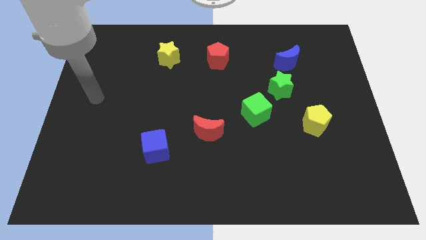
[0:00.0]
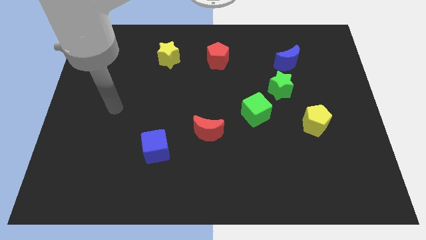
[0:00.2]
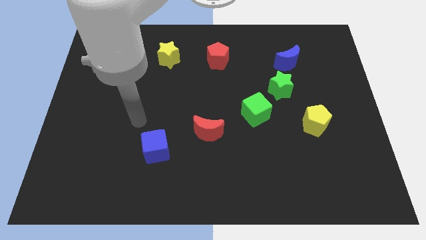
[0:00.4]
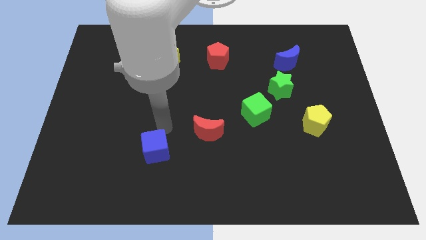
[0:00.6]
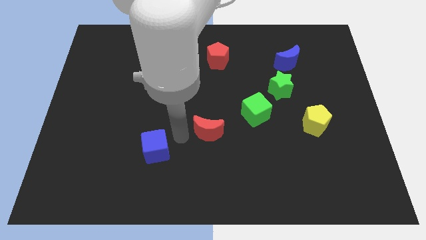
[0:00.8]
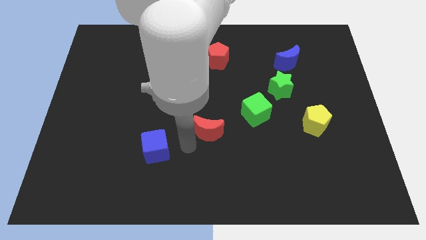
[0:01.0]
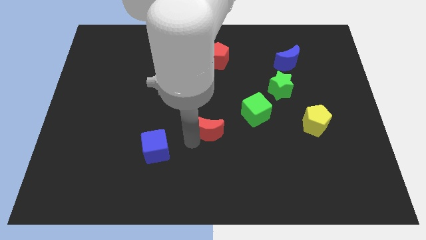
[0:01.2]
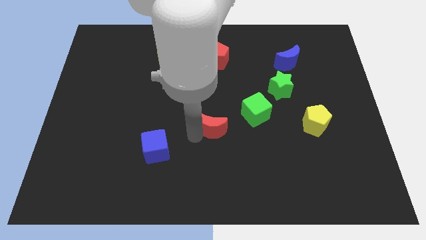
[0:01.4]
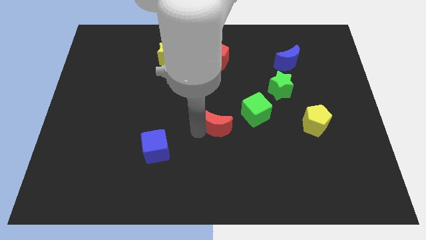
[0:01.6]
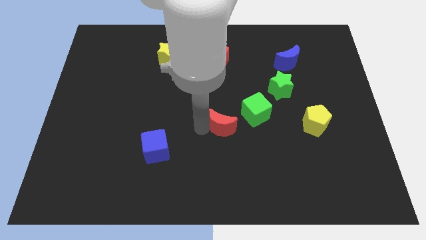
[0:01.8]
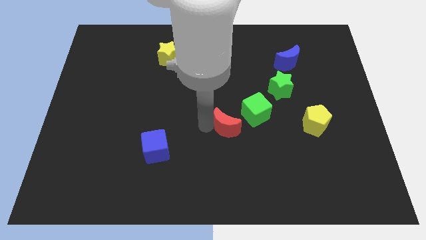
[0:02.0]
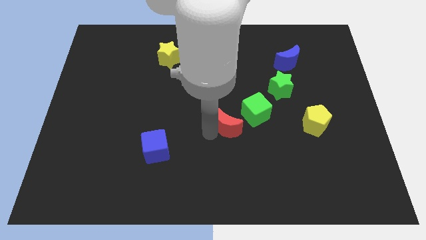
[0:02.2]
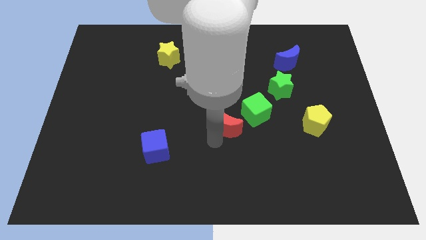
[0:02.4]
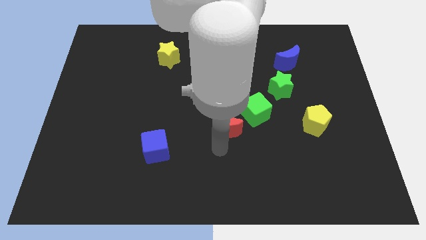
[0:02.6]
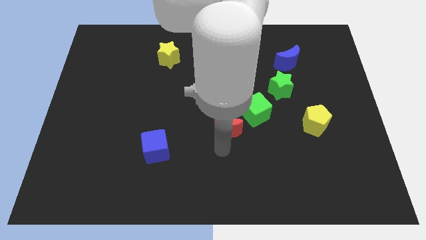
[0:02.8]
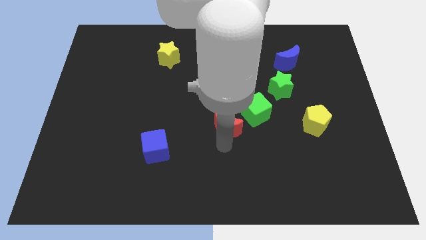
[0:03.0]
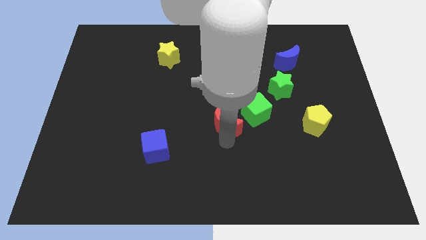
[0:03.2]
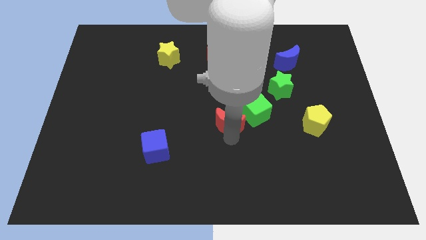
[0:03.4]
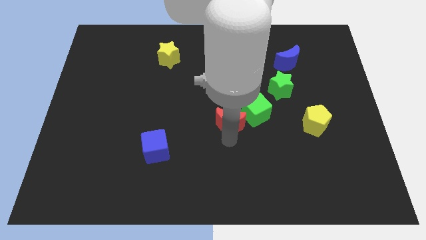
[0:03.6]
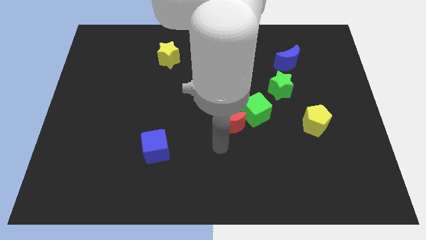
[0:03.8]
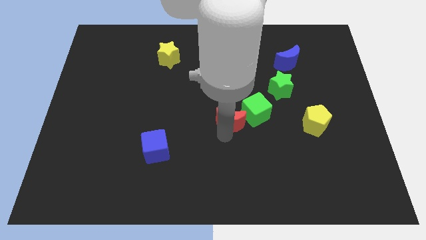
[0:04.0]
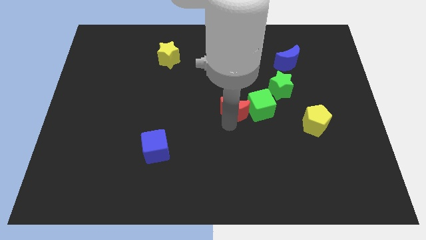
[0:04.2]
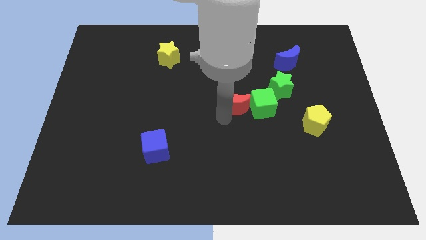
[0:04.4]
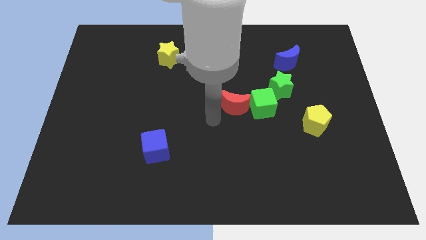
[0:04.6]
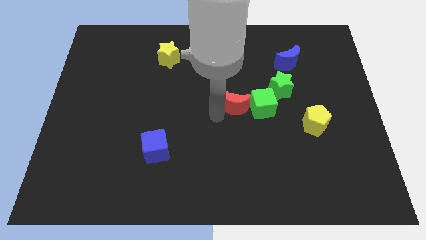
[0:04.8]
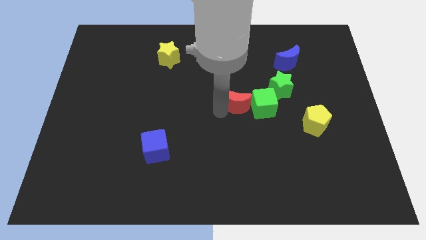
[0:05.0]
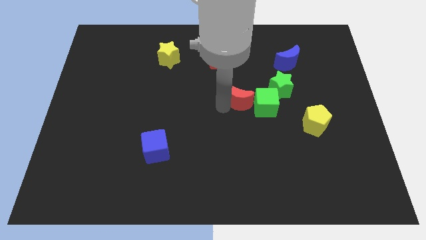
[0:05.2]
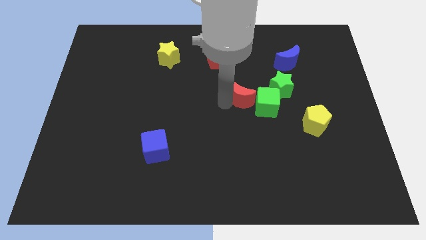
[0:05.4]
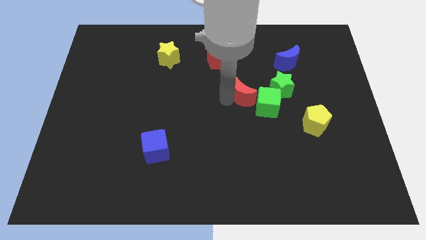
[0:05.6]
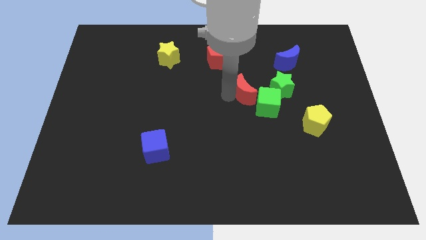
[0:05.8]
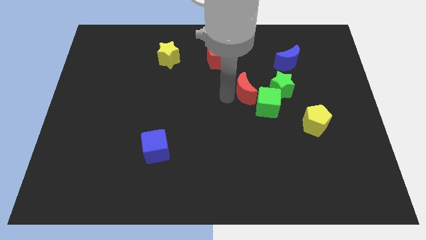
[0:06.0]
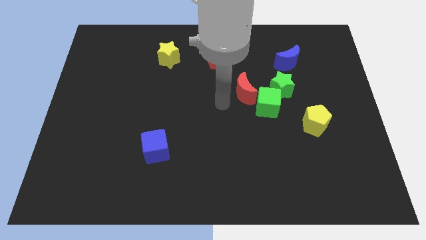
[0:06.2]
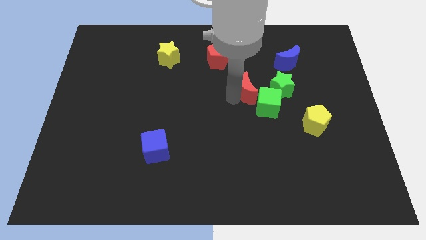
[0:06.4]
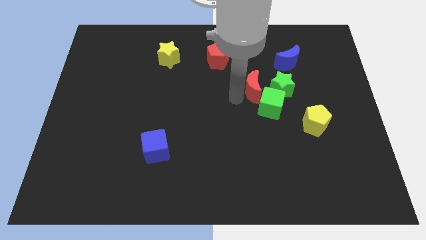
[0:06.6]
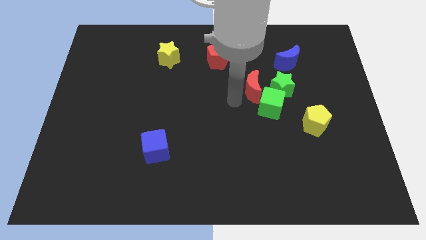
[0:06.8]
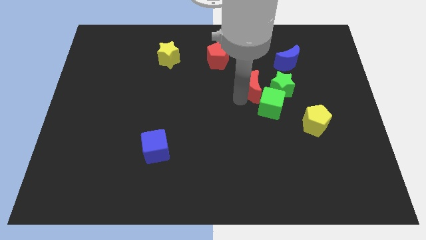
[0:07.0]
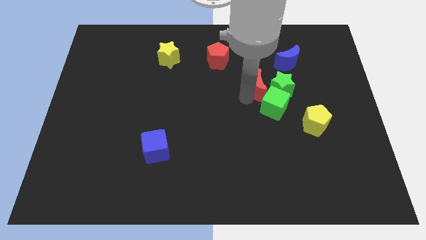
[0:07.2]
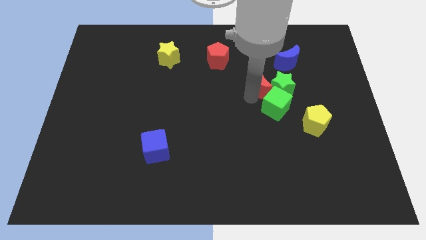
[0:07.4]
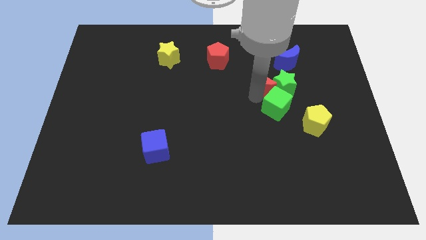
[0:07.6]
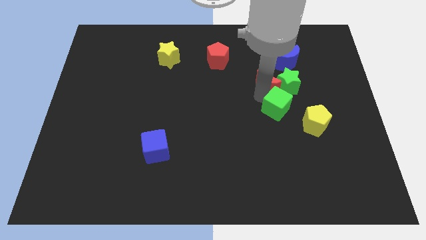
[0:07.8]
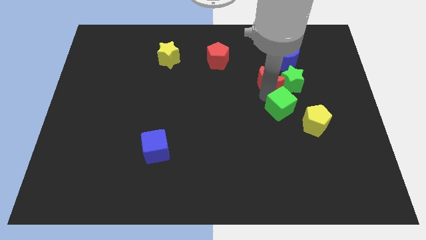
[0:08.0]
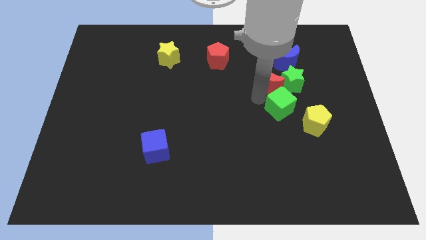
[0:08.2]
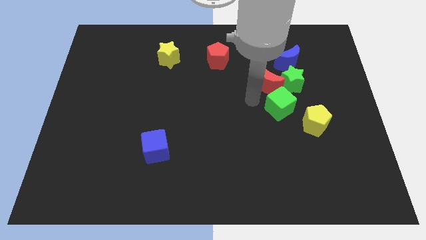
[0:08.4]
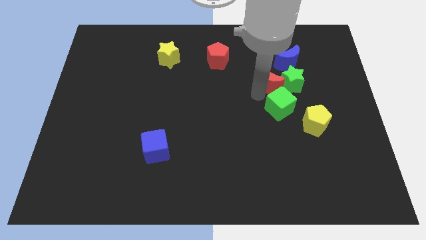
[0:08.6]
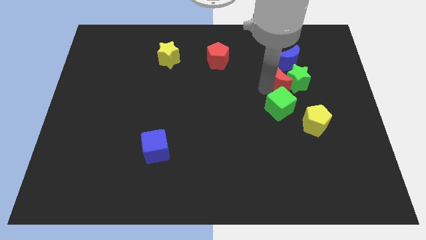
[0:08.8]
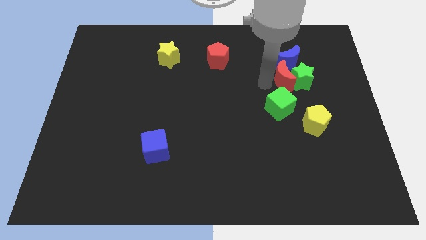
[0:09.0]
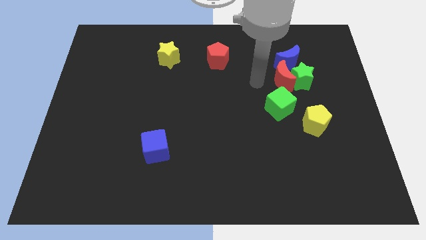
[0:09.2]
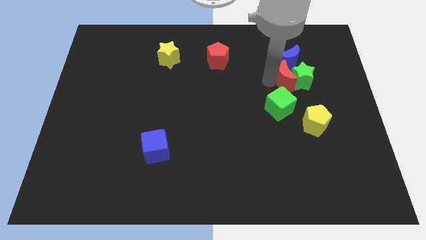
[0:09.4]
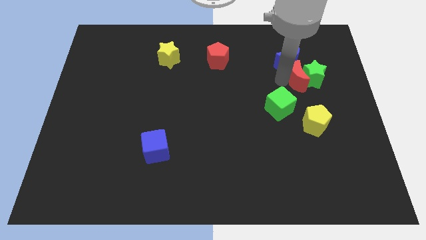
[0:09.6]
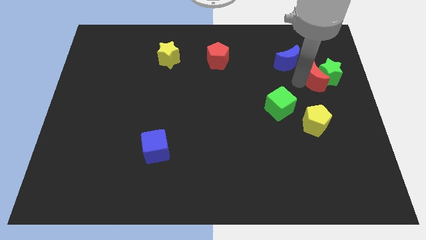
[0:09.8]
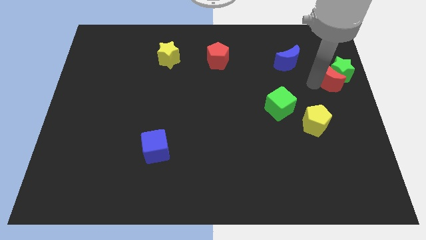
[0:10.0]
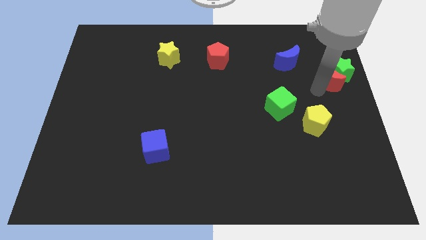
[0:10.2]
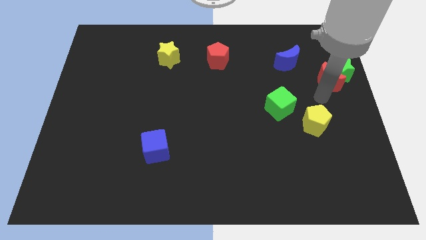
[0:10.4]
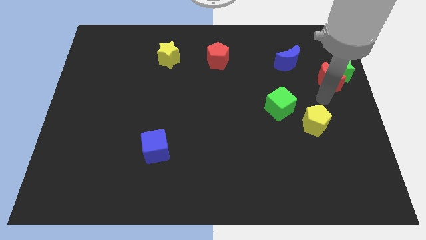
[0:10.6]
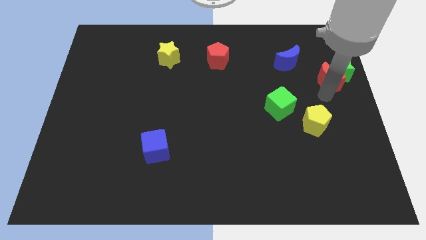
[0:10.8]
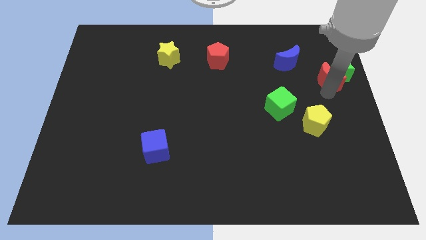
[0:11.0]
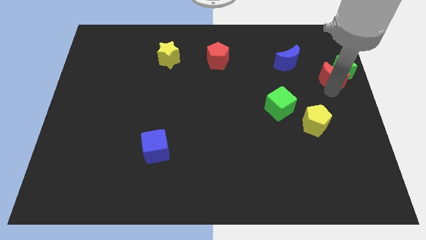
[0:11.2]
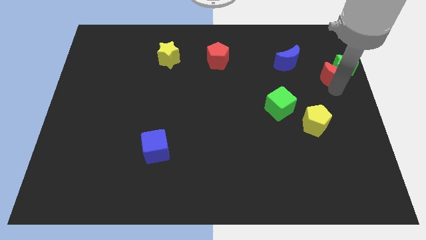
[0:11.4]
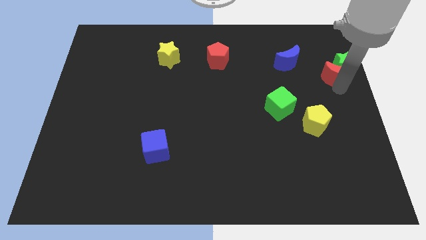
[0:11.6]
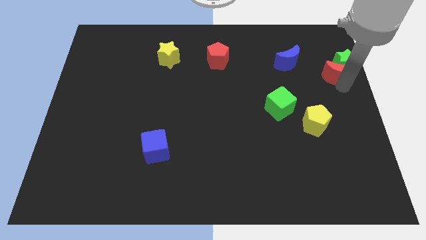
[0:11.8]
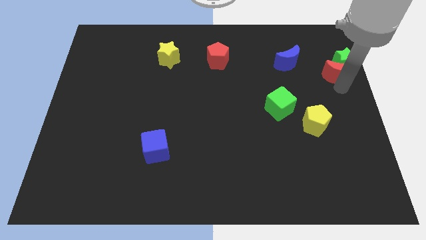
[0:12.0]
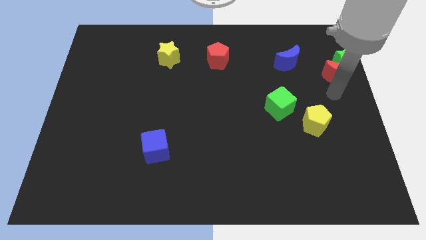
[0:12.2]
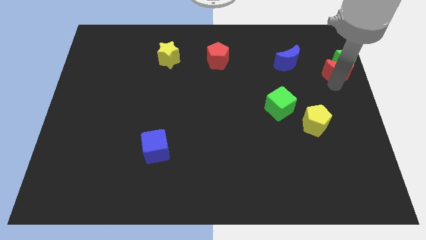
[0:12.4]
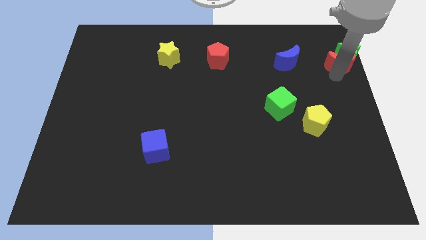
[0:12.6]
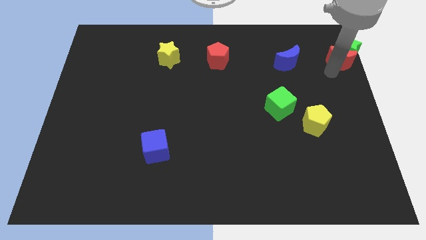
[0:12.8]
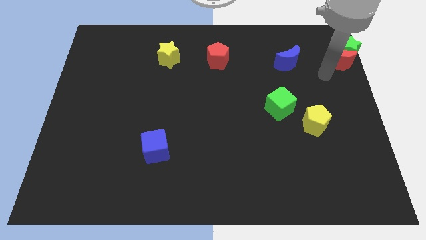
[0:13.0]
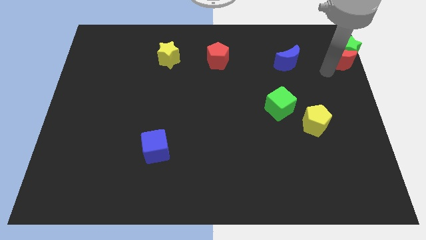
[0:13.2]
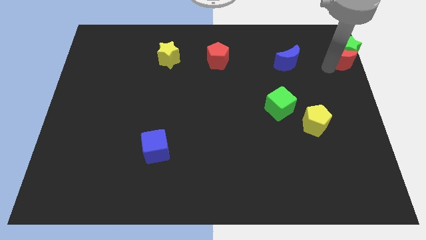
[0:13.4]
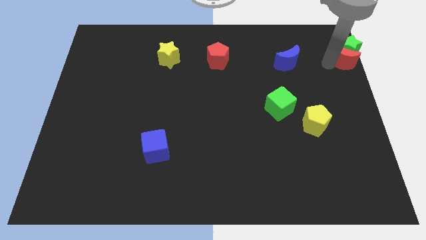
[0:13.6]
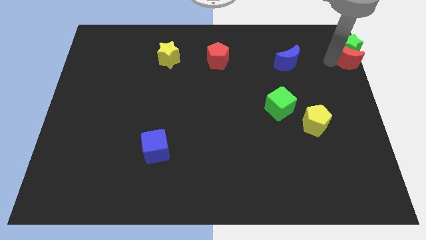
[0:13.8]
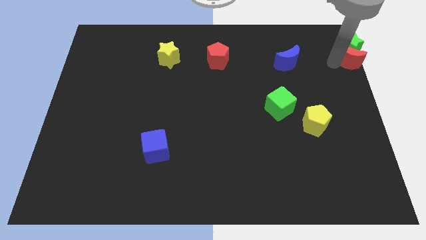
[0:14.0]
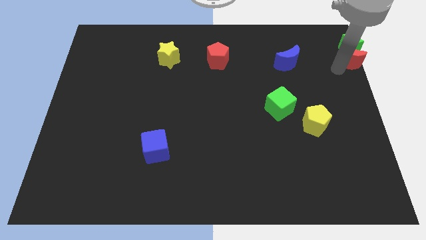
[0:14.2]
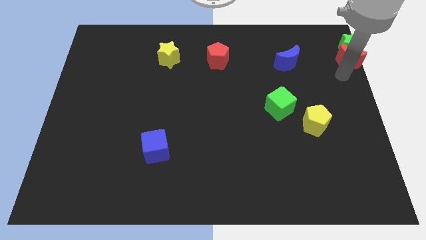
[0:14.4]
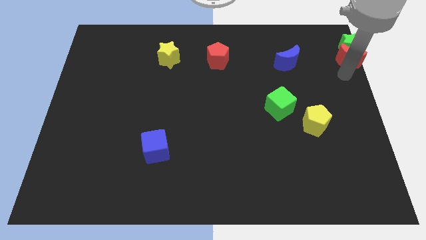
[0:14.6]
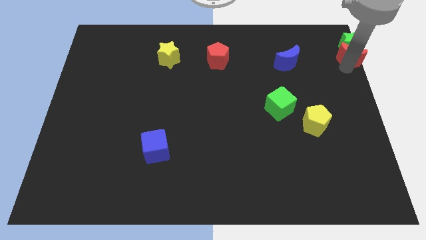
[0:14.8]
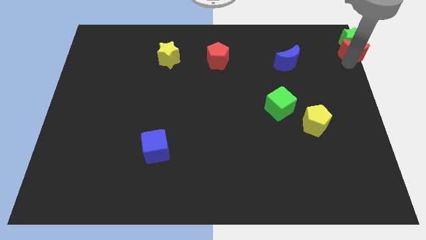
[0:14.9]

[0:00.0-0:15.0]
move the red moon to the upper right corner
